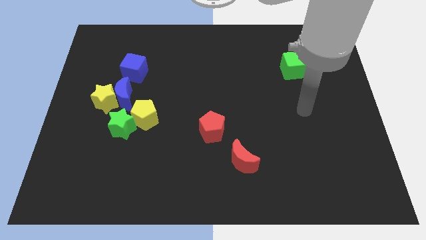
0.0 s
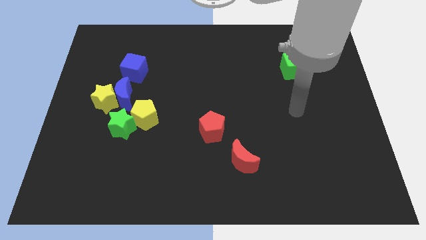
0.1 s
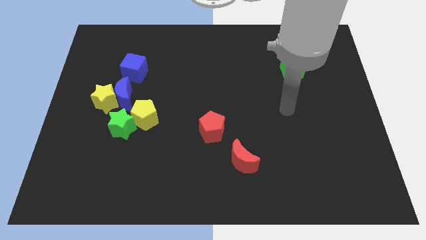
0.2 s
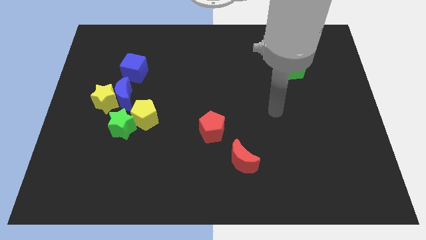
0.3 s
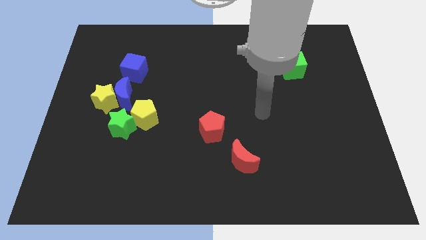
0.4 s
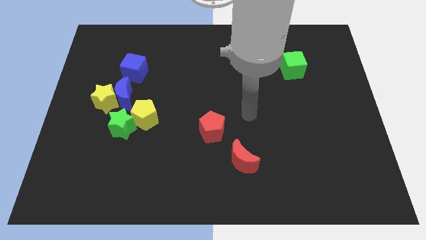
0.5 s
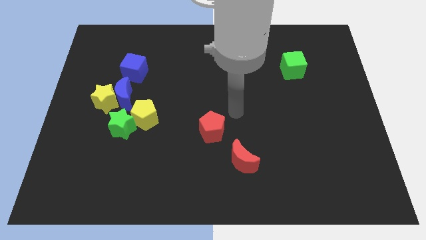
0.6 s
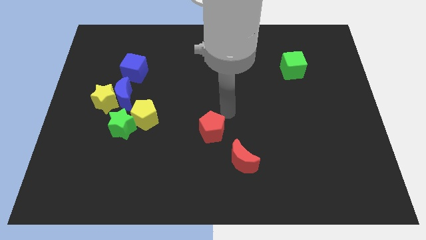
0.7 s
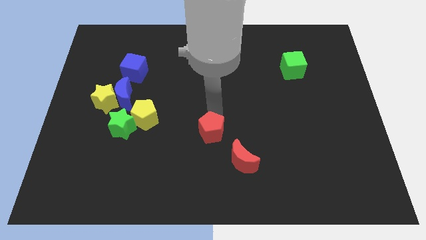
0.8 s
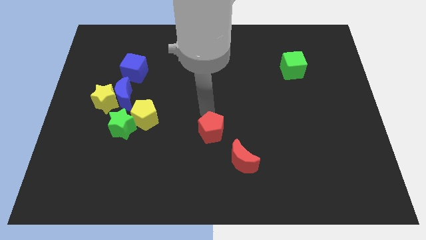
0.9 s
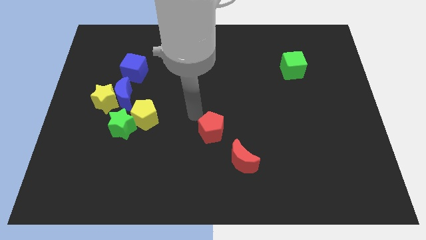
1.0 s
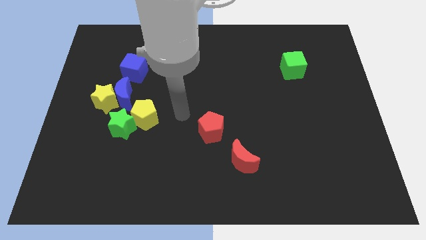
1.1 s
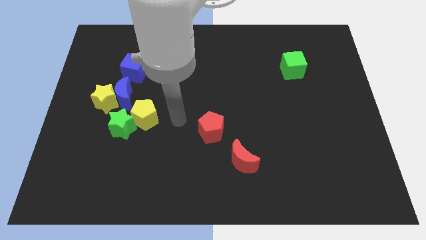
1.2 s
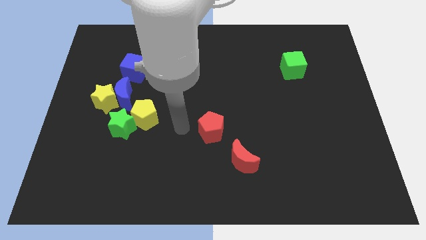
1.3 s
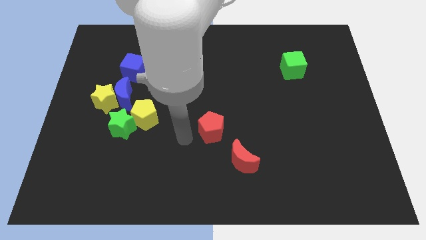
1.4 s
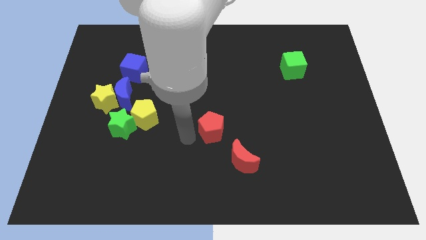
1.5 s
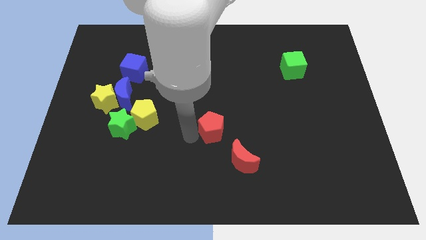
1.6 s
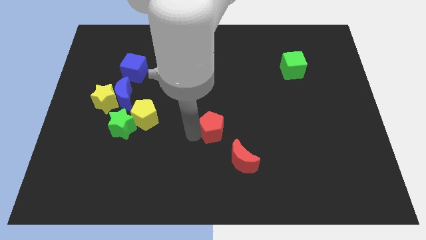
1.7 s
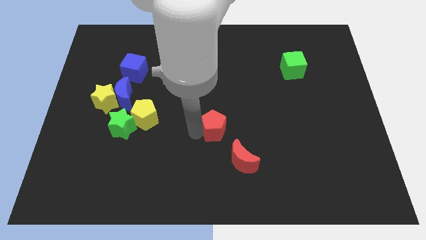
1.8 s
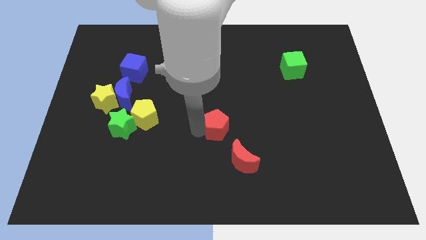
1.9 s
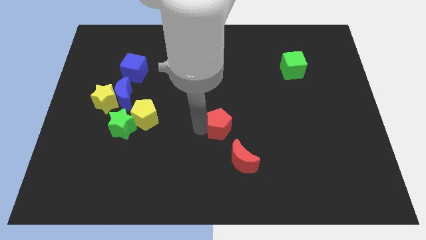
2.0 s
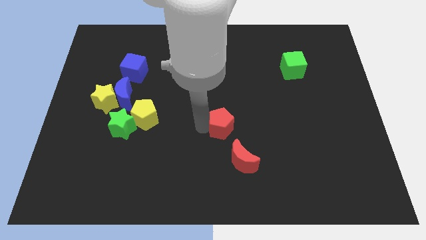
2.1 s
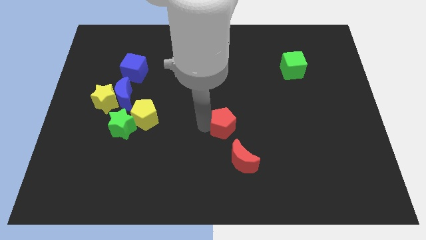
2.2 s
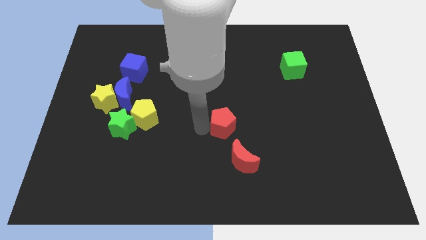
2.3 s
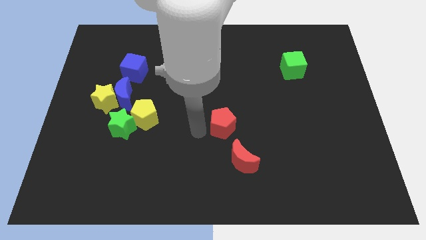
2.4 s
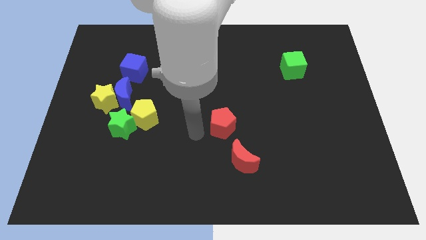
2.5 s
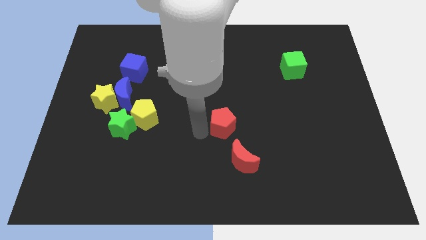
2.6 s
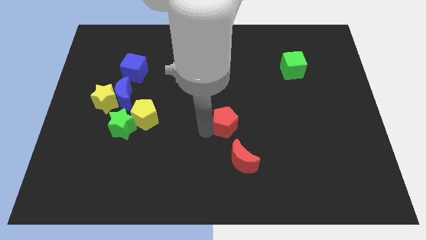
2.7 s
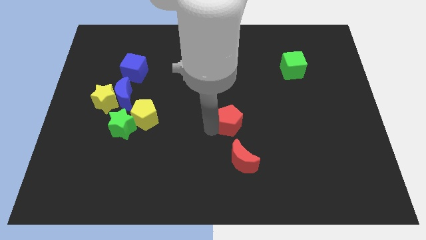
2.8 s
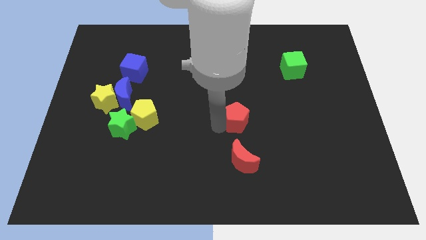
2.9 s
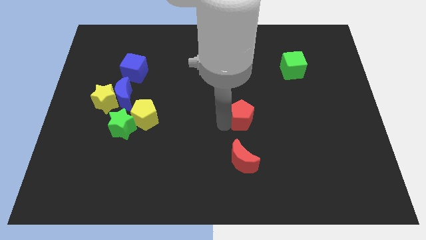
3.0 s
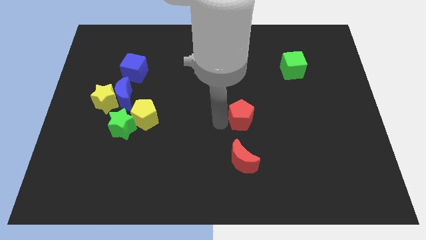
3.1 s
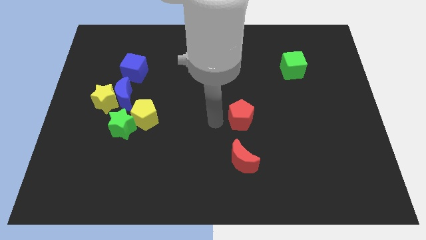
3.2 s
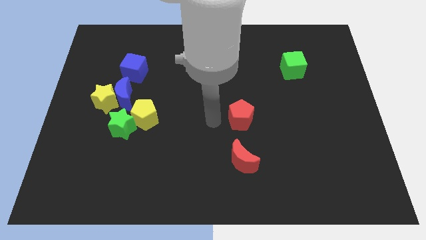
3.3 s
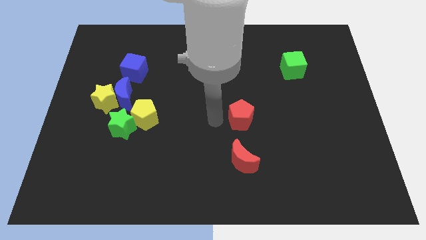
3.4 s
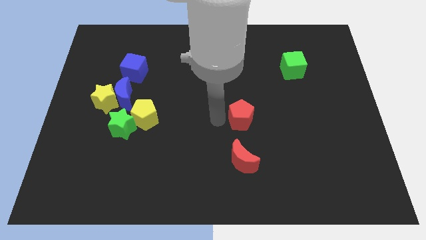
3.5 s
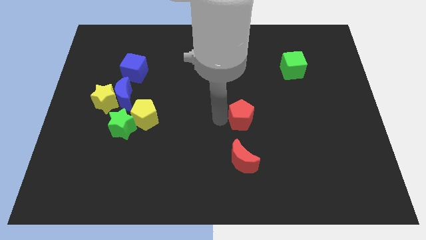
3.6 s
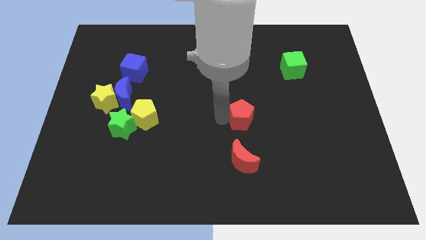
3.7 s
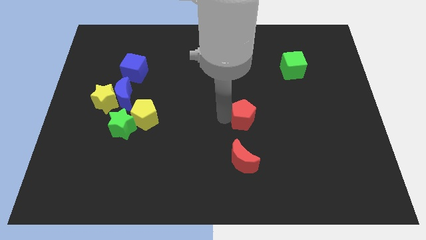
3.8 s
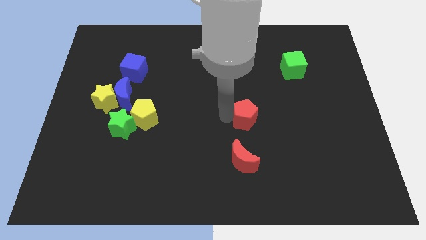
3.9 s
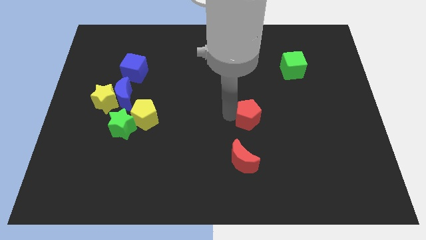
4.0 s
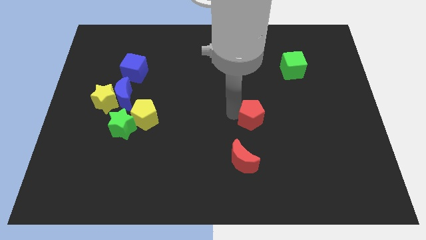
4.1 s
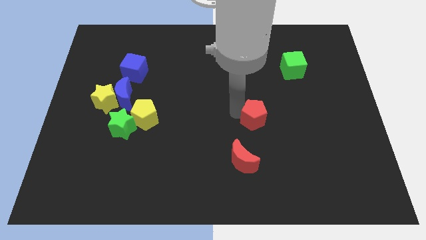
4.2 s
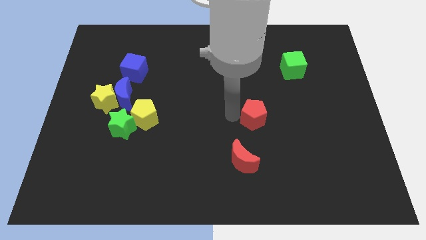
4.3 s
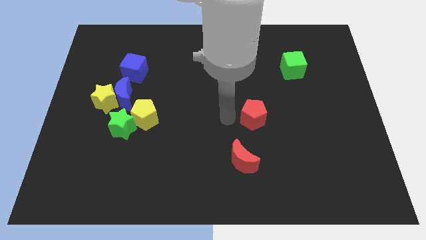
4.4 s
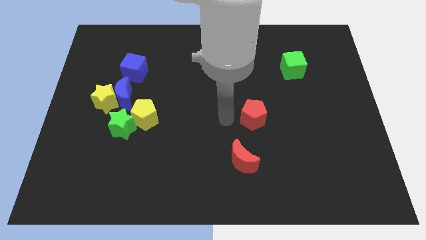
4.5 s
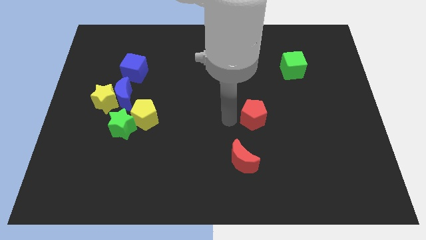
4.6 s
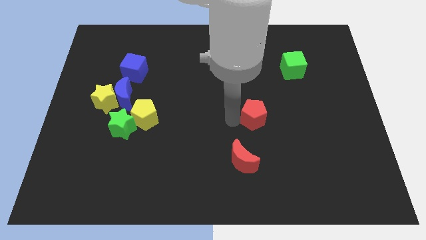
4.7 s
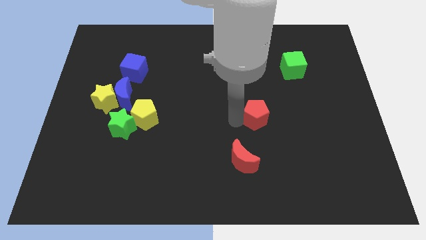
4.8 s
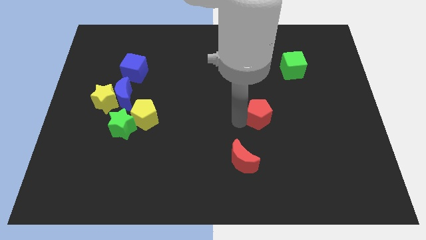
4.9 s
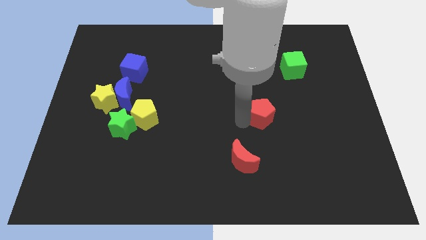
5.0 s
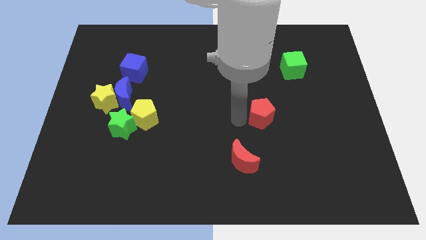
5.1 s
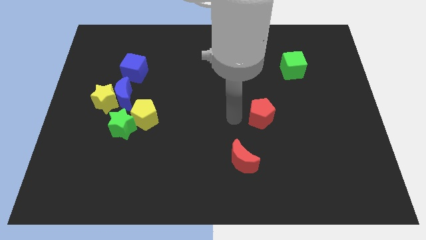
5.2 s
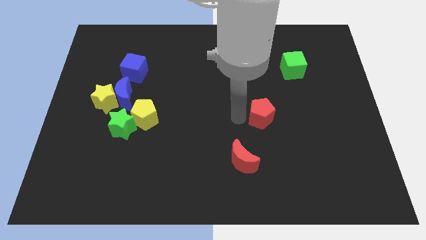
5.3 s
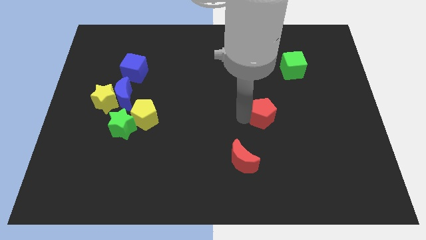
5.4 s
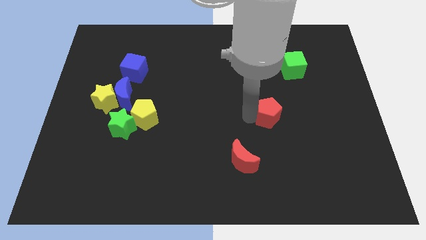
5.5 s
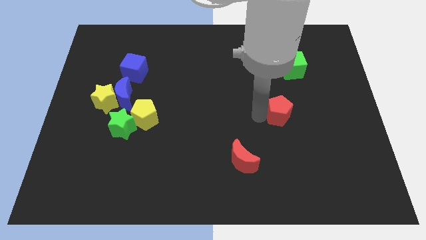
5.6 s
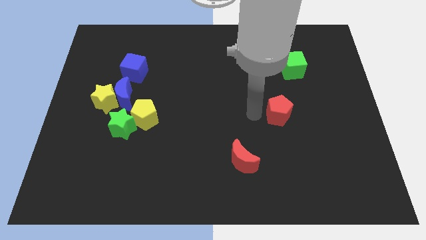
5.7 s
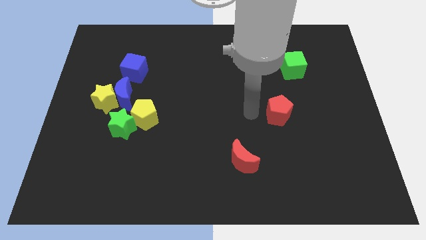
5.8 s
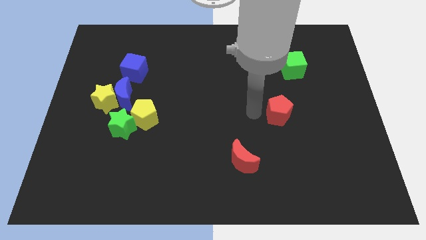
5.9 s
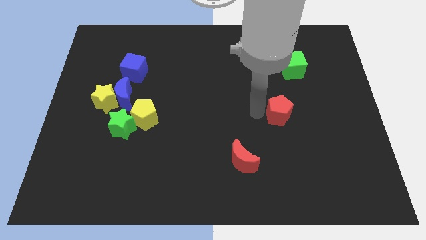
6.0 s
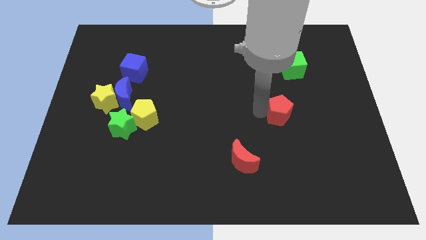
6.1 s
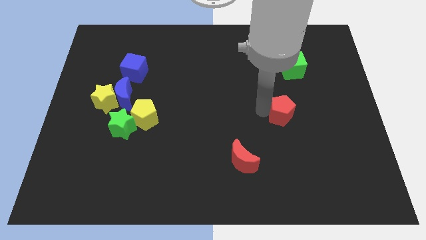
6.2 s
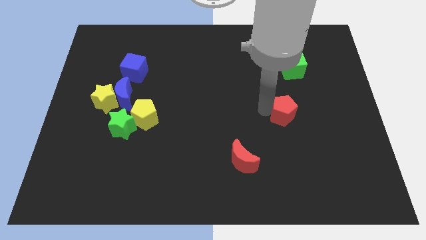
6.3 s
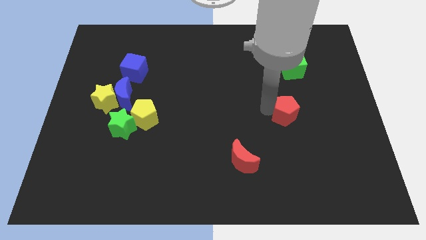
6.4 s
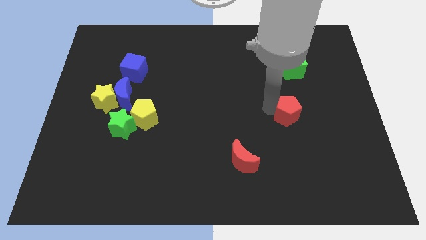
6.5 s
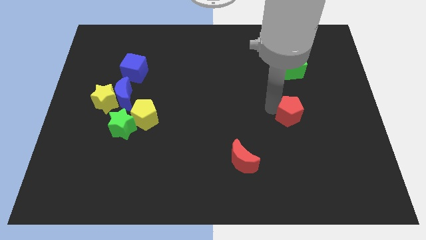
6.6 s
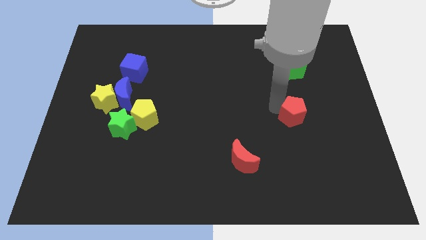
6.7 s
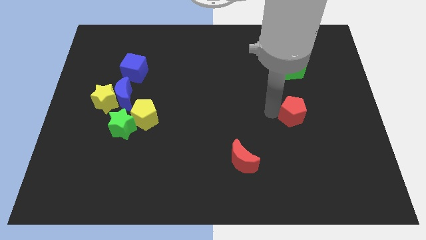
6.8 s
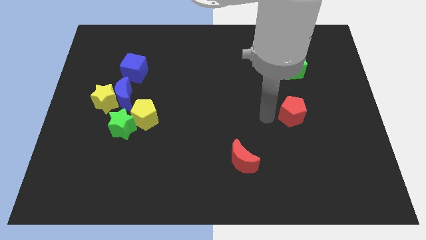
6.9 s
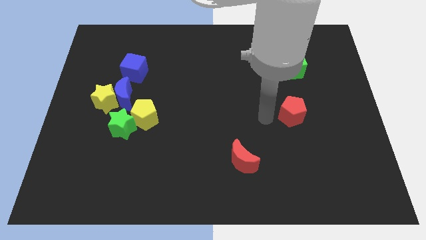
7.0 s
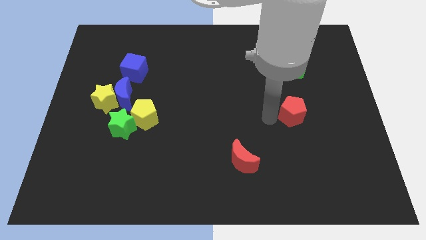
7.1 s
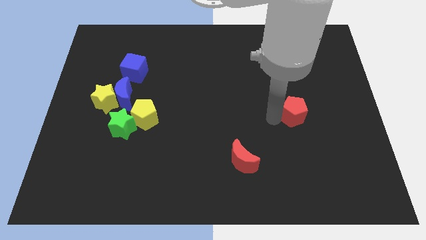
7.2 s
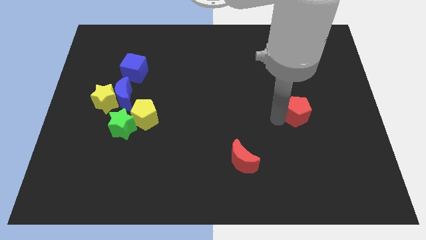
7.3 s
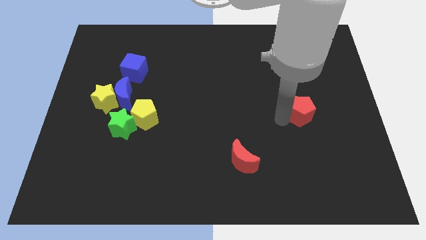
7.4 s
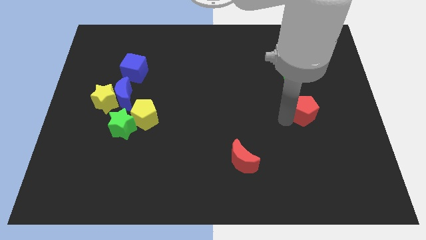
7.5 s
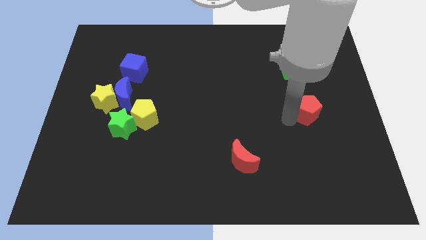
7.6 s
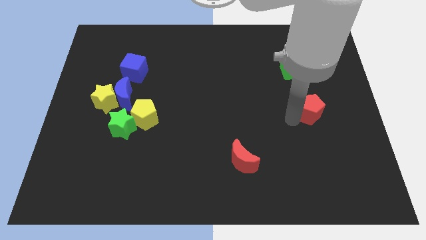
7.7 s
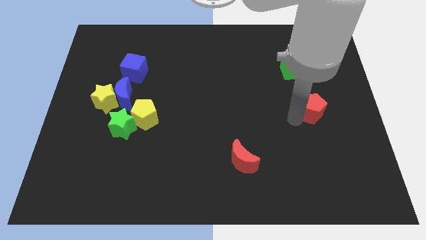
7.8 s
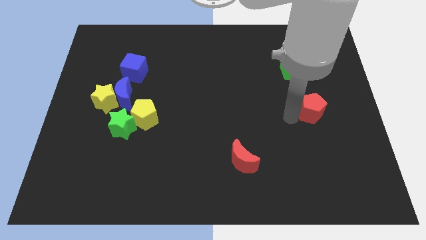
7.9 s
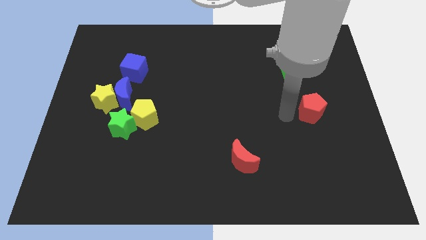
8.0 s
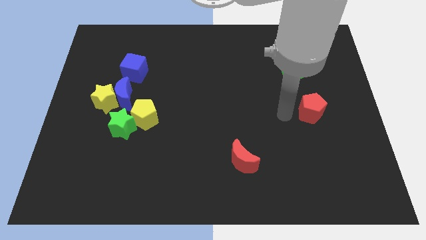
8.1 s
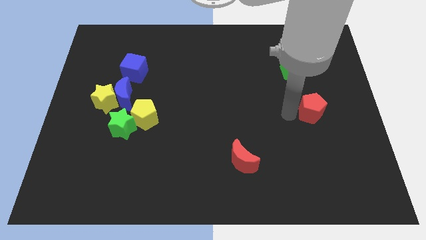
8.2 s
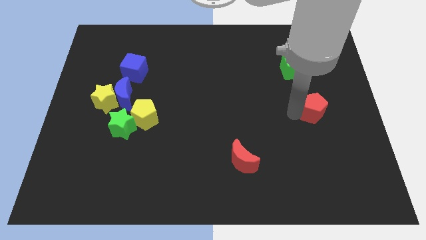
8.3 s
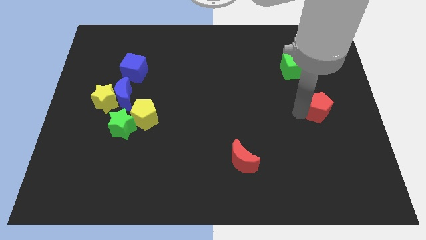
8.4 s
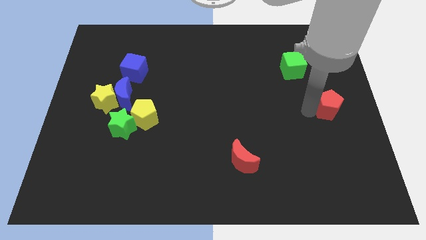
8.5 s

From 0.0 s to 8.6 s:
move the red pentagon to the right side of the board
